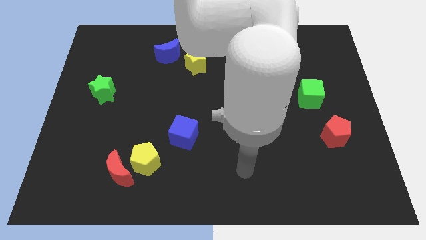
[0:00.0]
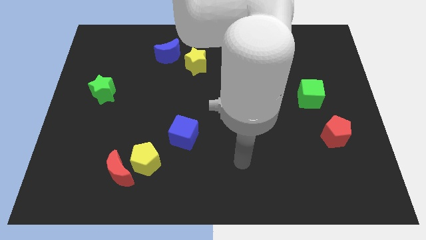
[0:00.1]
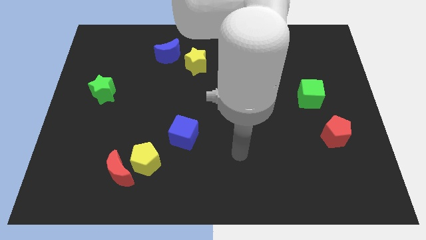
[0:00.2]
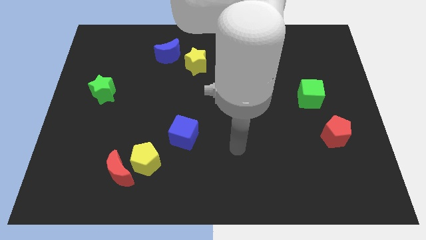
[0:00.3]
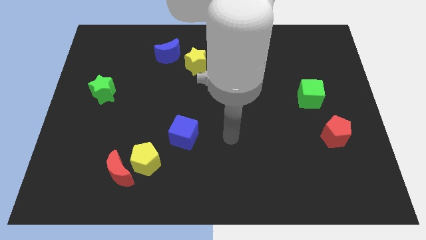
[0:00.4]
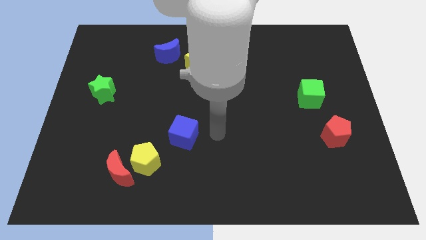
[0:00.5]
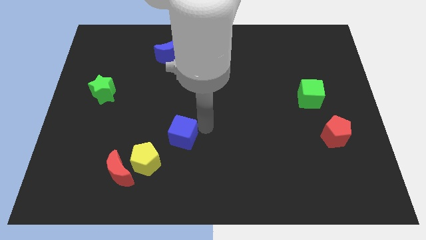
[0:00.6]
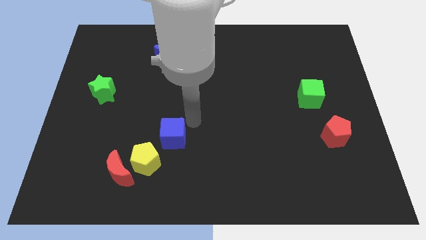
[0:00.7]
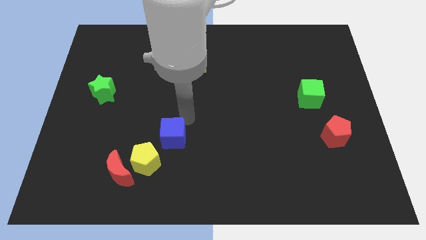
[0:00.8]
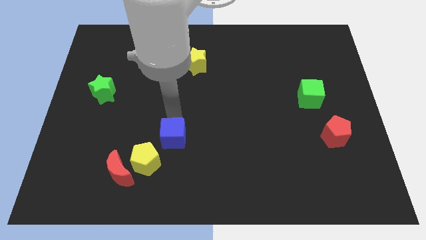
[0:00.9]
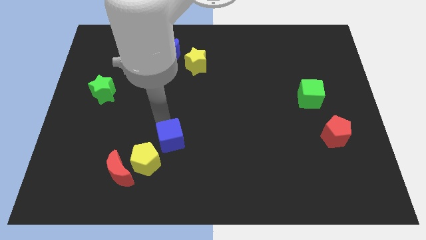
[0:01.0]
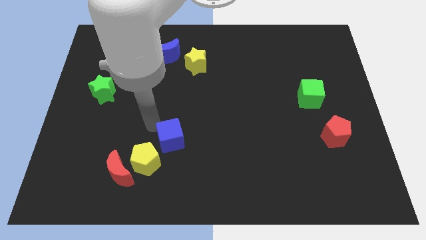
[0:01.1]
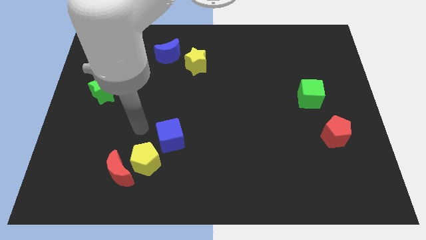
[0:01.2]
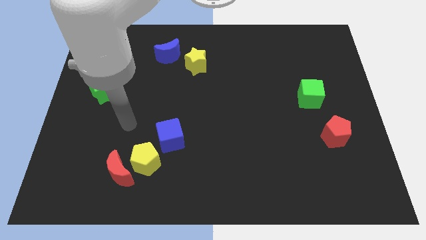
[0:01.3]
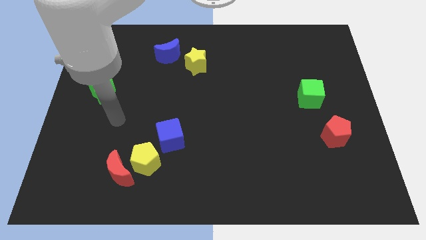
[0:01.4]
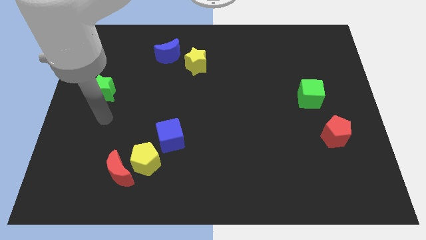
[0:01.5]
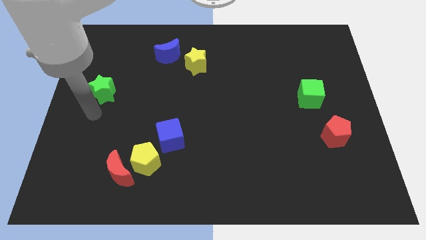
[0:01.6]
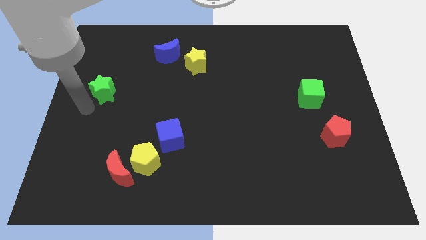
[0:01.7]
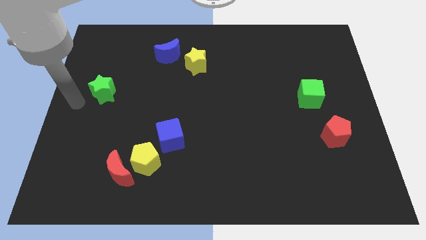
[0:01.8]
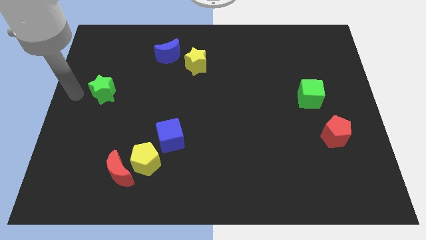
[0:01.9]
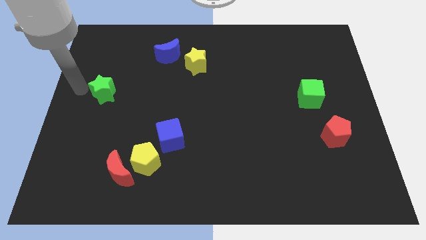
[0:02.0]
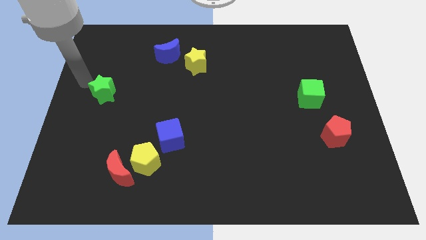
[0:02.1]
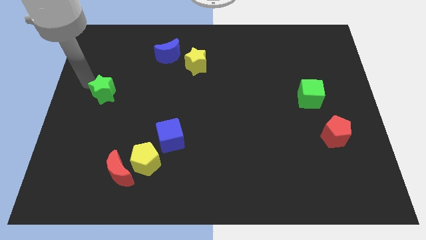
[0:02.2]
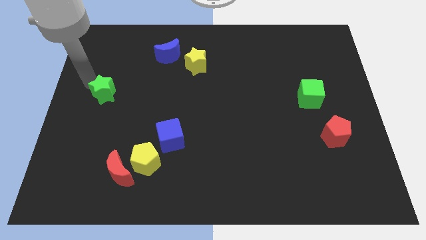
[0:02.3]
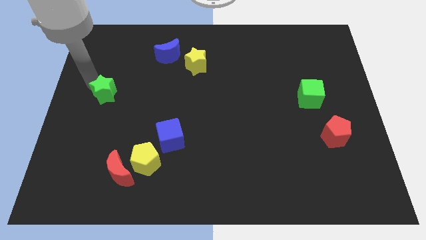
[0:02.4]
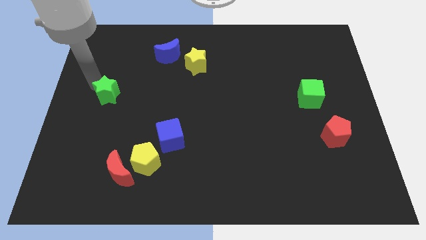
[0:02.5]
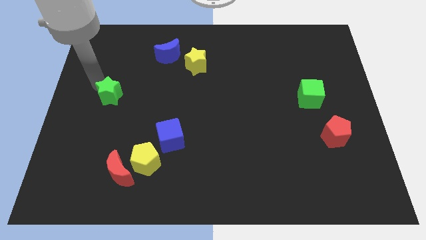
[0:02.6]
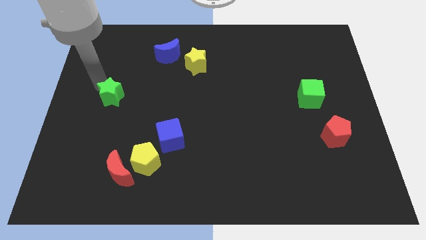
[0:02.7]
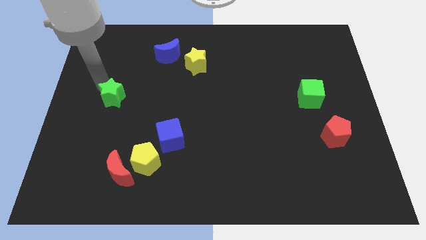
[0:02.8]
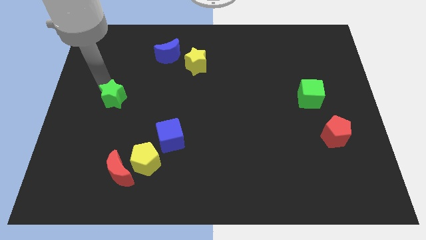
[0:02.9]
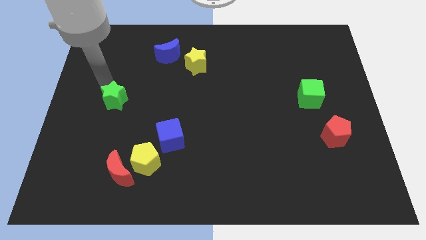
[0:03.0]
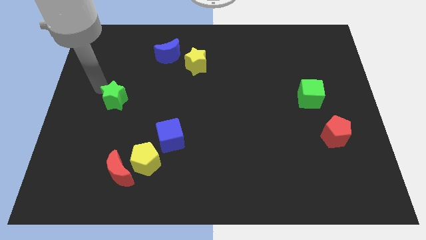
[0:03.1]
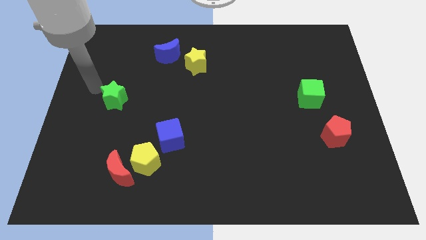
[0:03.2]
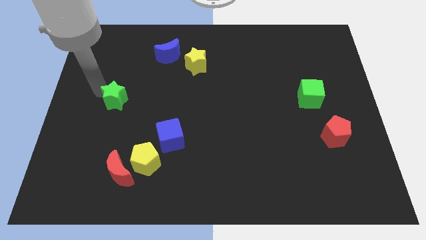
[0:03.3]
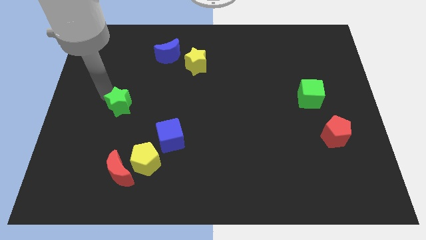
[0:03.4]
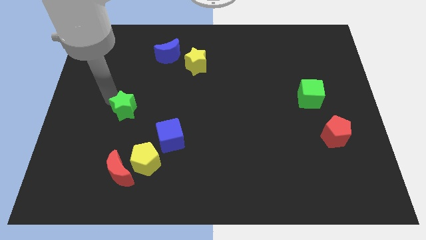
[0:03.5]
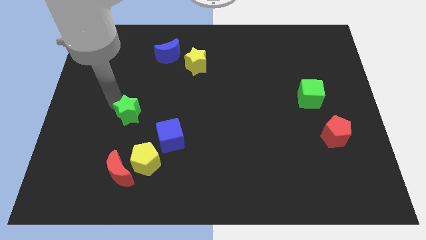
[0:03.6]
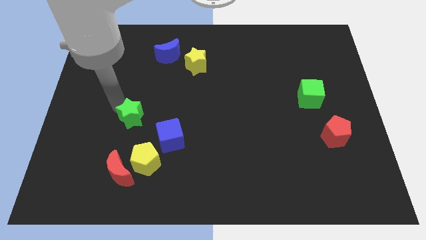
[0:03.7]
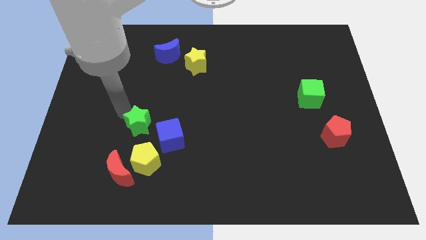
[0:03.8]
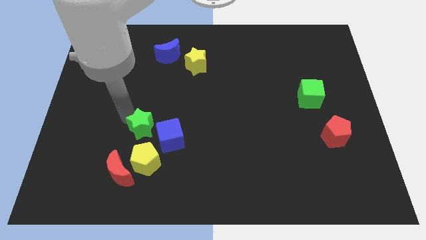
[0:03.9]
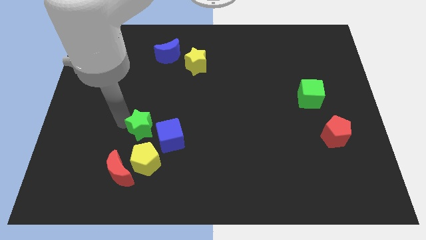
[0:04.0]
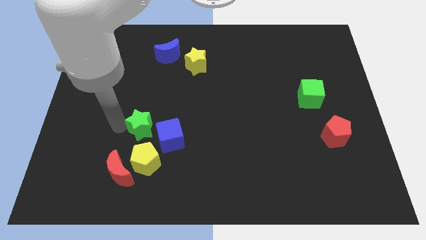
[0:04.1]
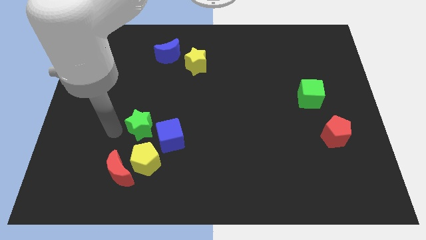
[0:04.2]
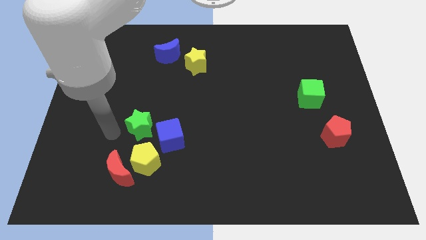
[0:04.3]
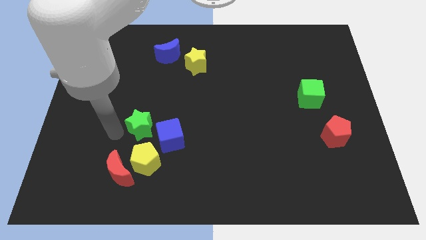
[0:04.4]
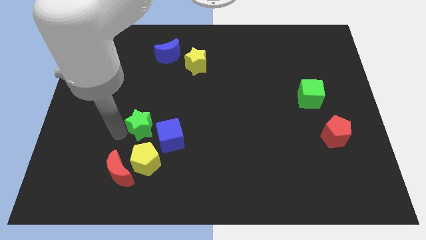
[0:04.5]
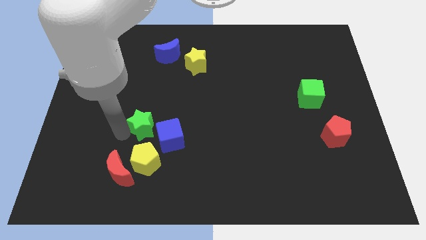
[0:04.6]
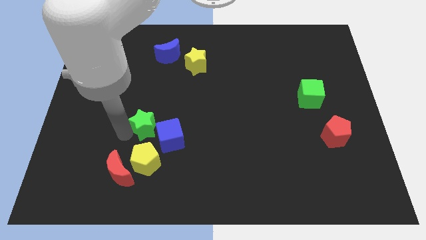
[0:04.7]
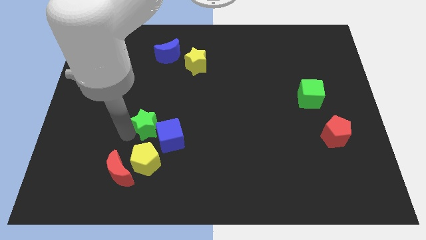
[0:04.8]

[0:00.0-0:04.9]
push the green star next to the blue cube

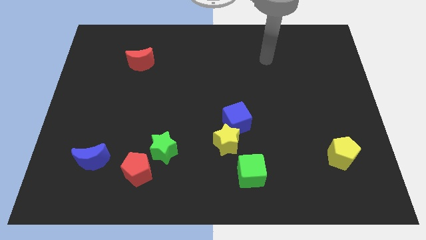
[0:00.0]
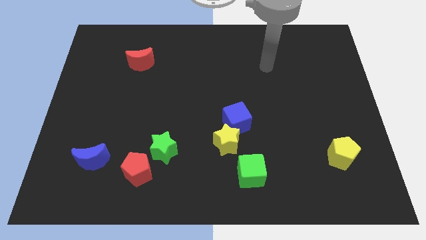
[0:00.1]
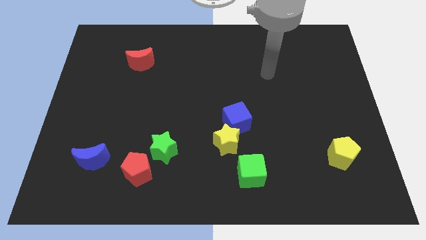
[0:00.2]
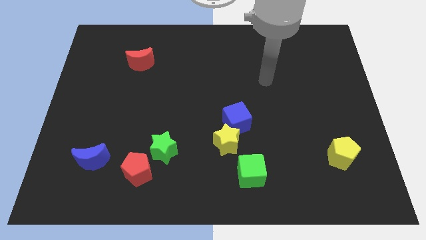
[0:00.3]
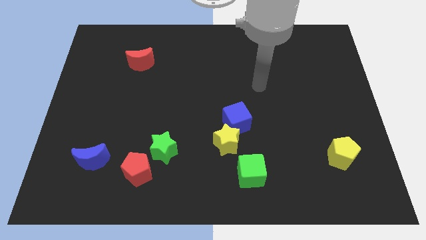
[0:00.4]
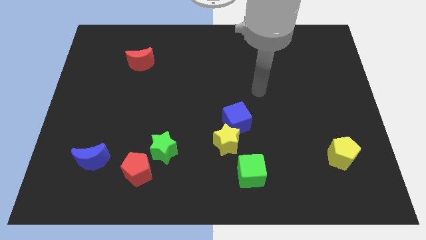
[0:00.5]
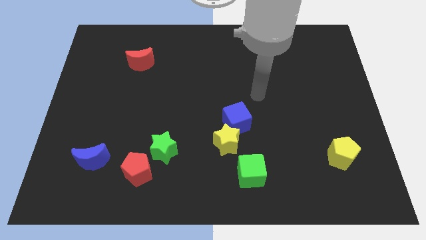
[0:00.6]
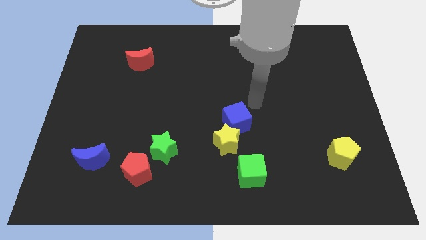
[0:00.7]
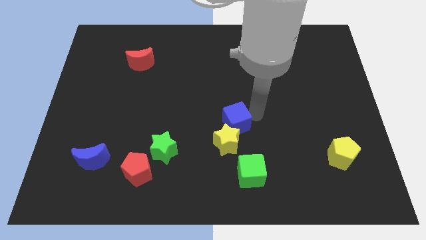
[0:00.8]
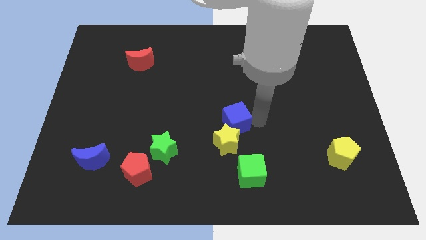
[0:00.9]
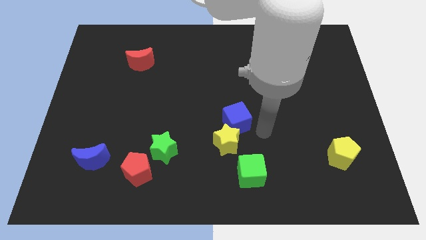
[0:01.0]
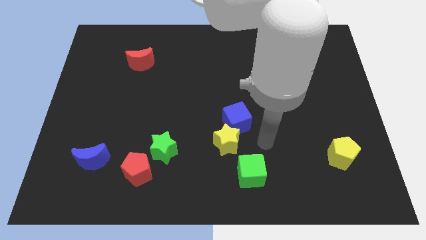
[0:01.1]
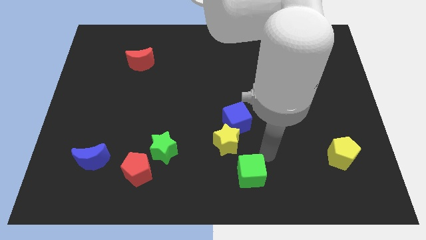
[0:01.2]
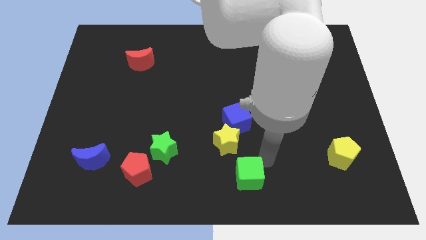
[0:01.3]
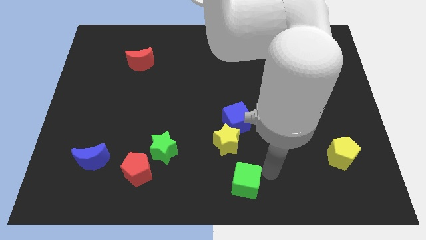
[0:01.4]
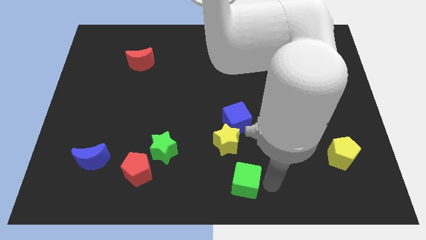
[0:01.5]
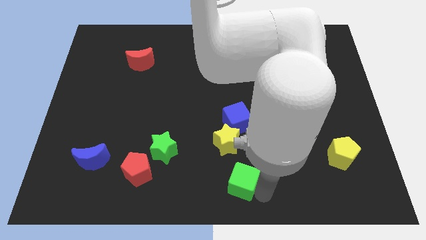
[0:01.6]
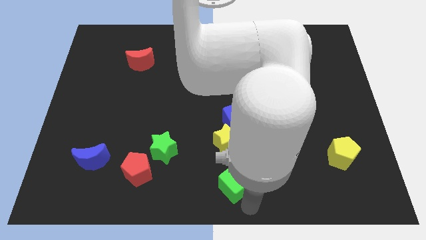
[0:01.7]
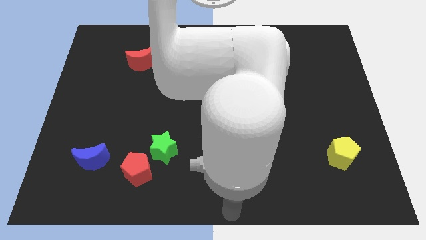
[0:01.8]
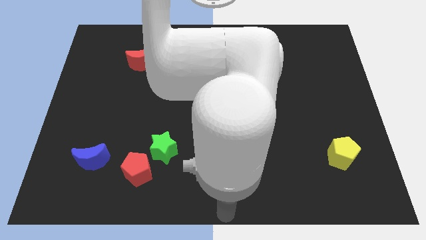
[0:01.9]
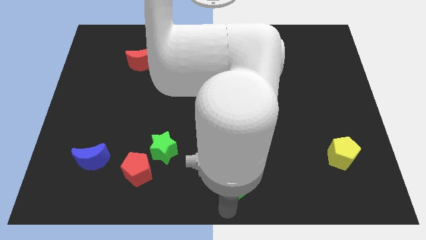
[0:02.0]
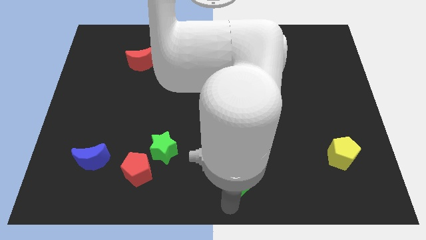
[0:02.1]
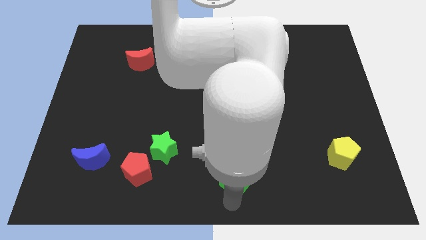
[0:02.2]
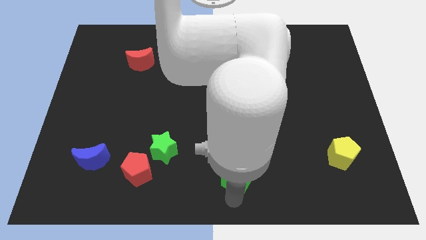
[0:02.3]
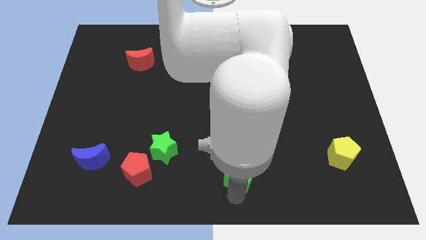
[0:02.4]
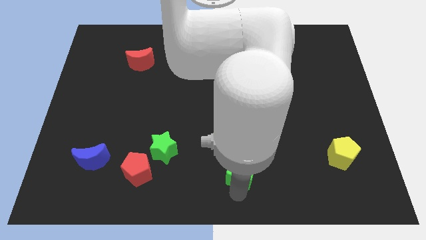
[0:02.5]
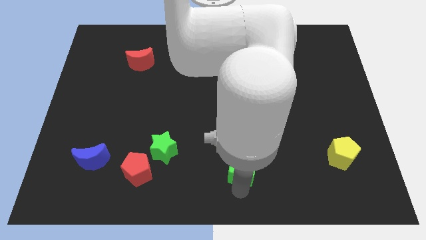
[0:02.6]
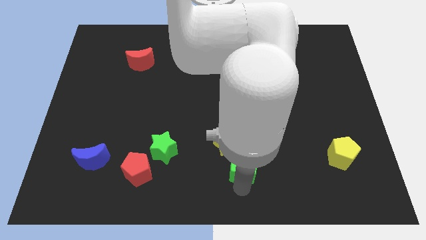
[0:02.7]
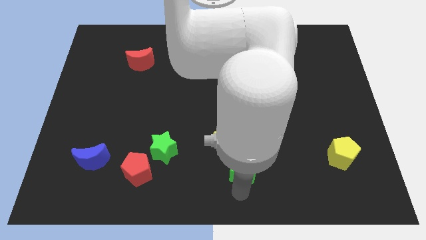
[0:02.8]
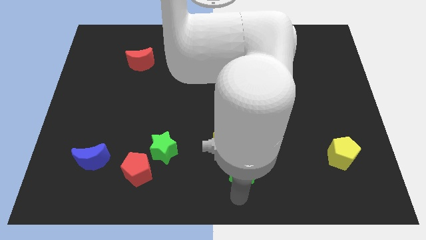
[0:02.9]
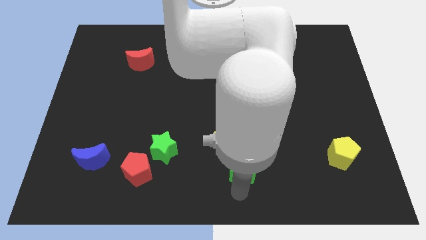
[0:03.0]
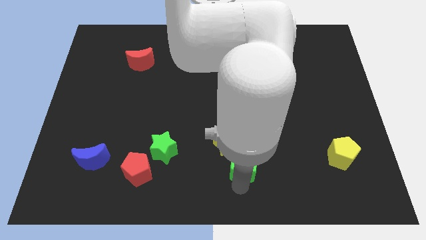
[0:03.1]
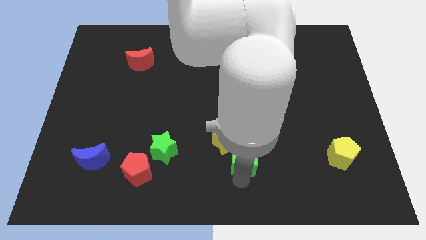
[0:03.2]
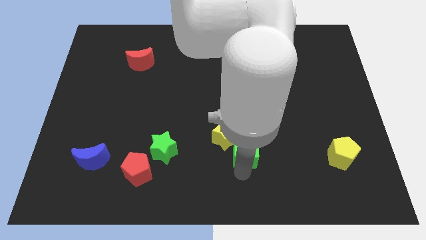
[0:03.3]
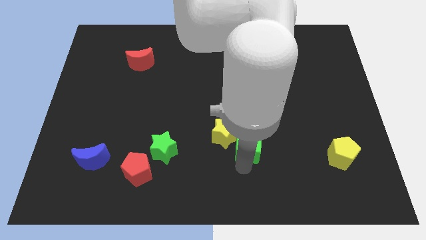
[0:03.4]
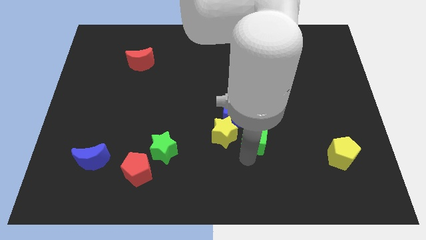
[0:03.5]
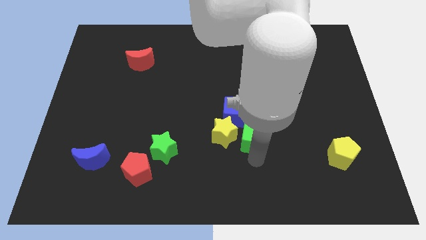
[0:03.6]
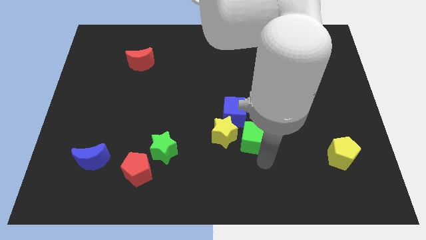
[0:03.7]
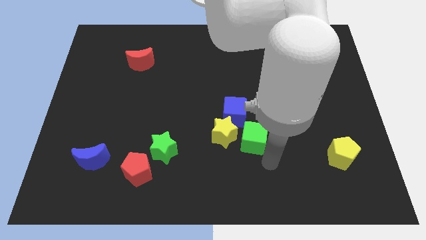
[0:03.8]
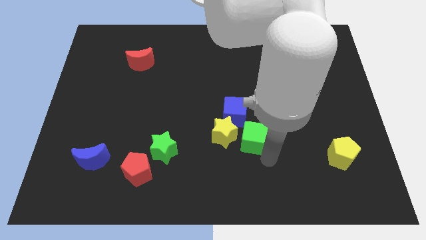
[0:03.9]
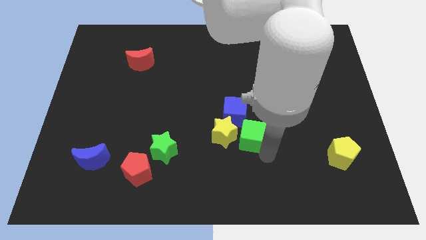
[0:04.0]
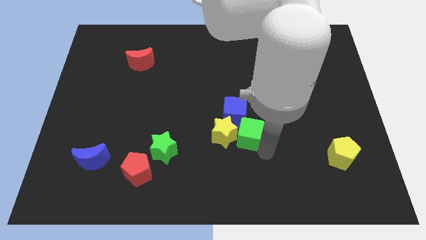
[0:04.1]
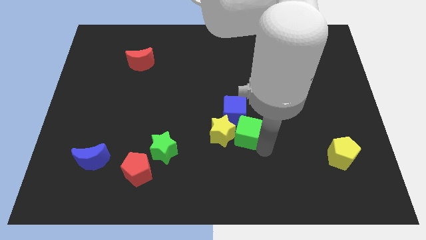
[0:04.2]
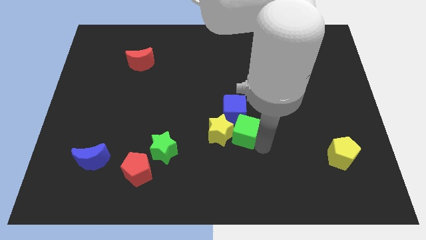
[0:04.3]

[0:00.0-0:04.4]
put the green cube towards the blue cube
